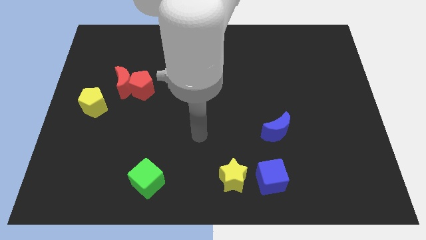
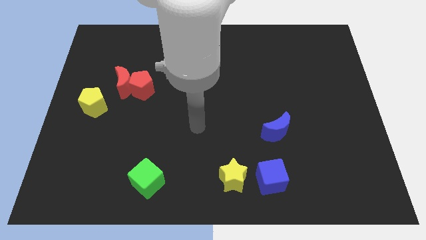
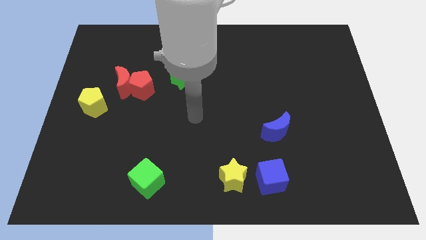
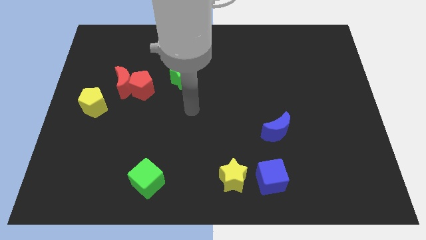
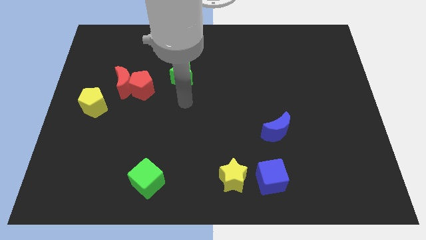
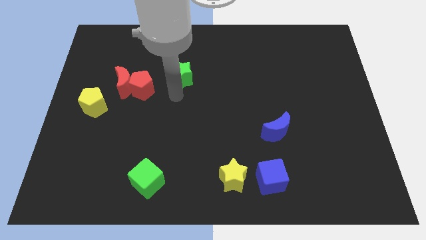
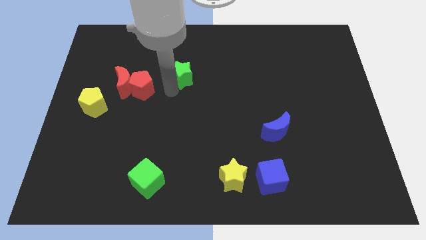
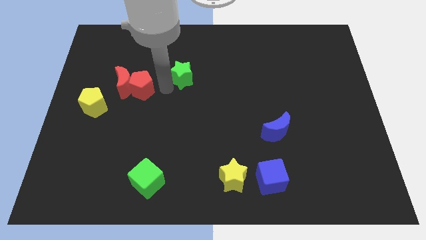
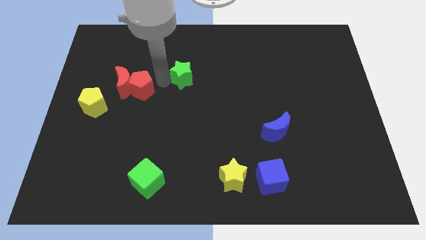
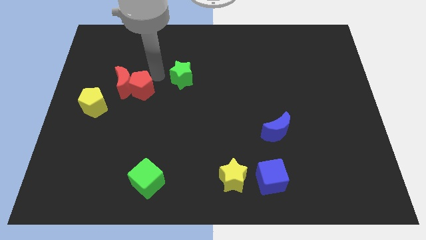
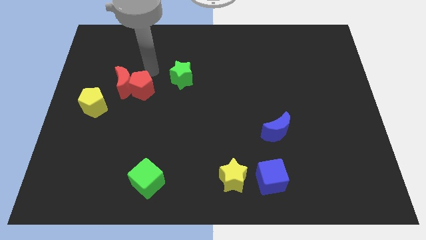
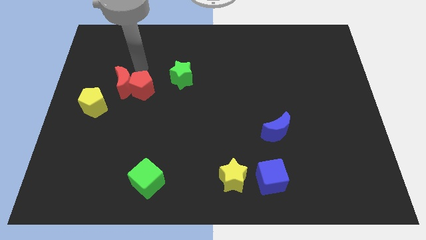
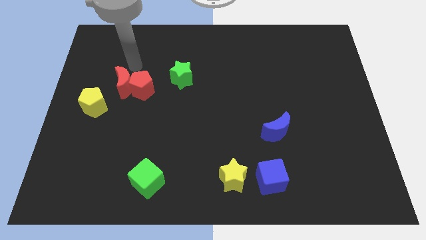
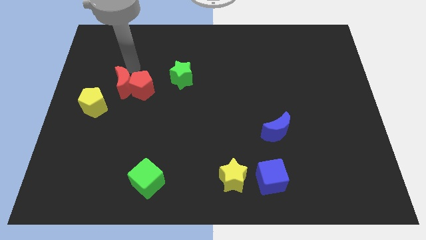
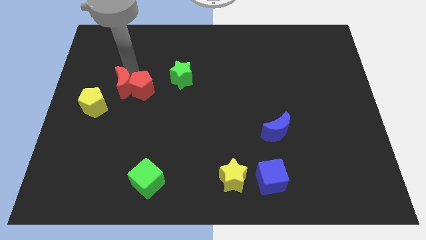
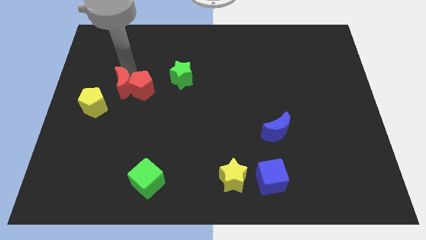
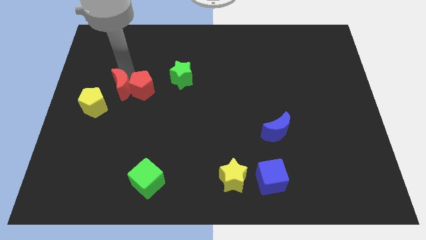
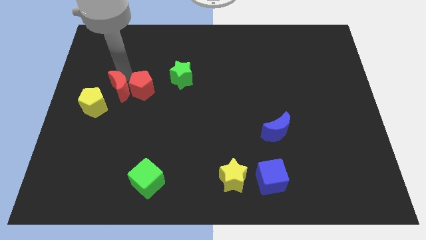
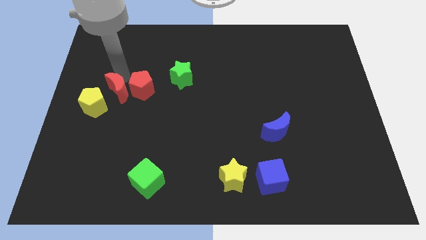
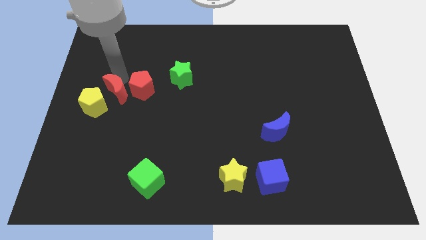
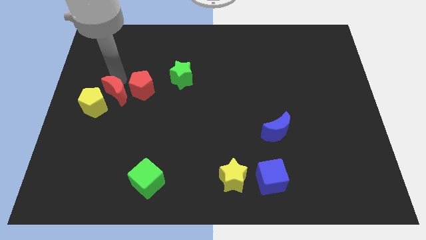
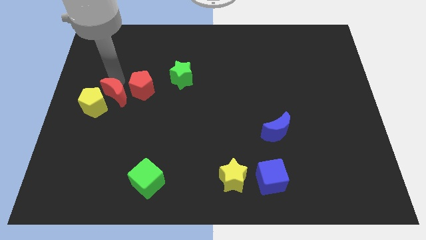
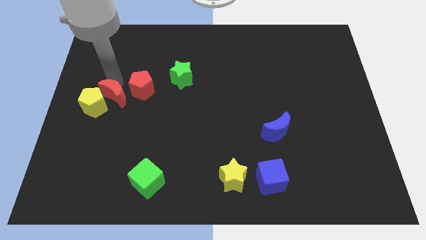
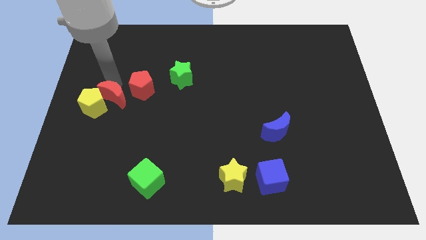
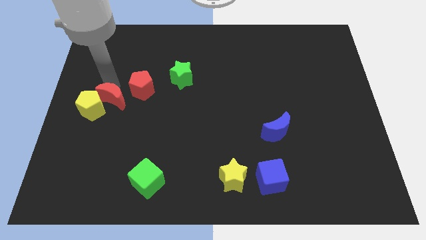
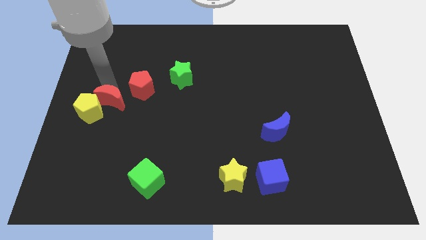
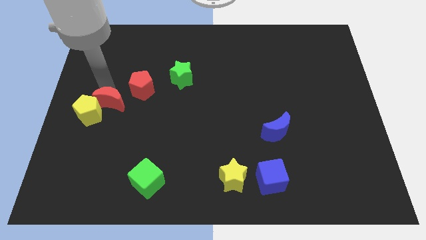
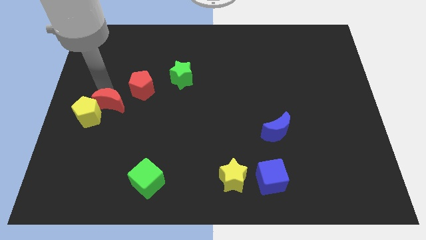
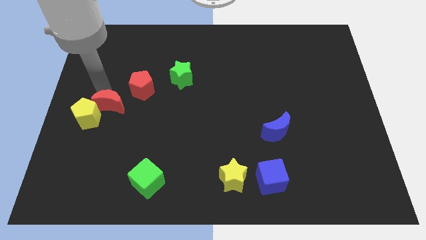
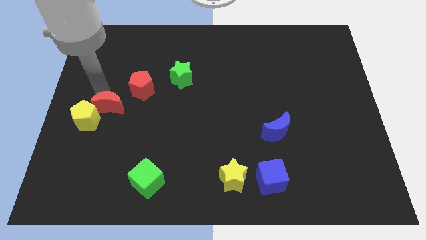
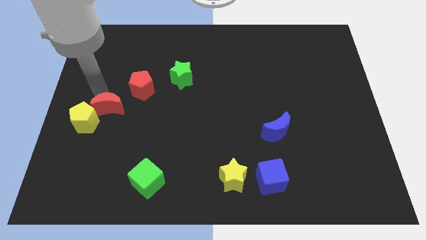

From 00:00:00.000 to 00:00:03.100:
slightly push the red moon downwards

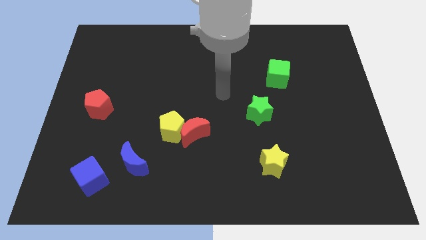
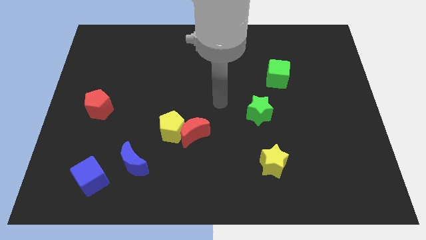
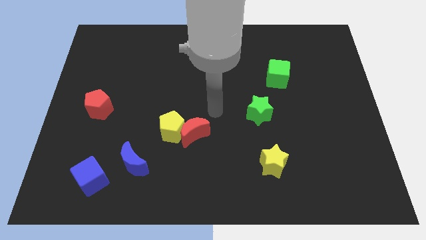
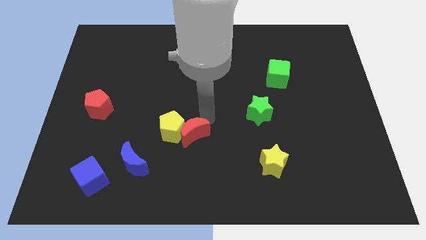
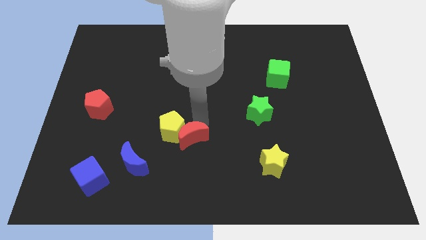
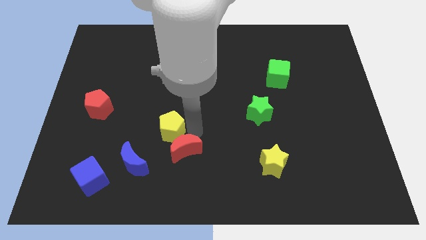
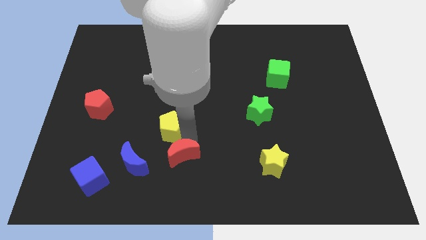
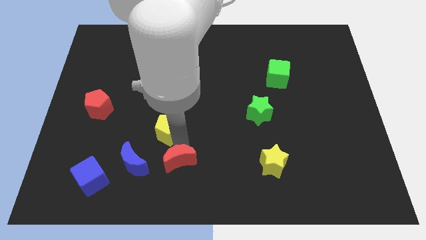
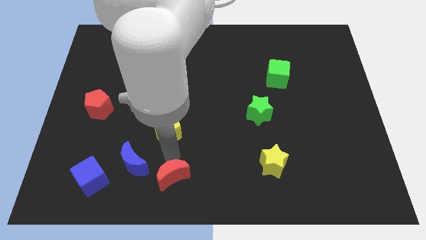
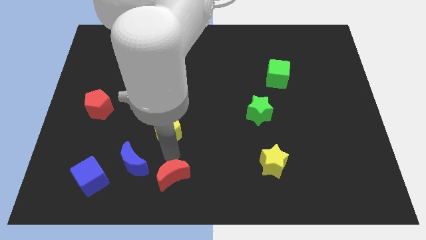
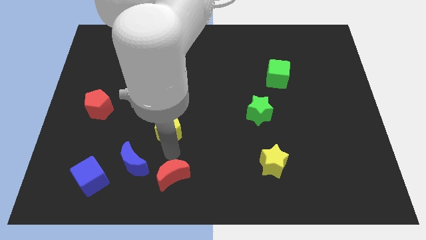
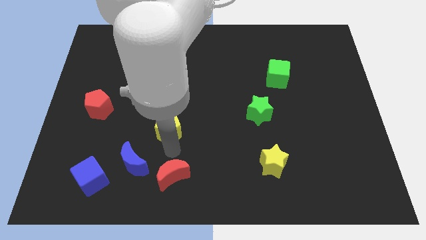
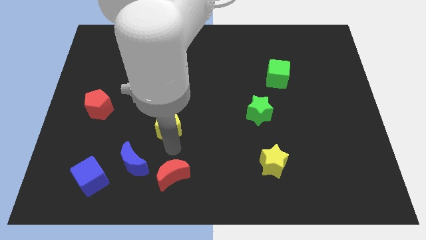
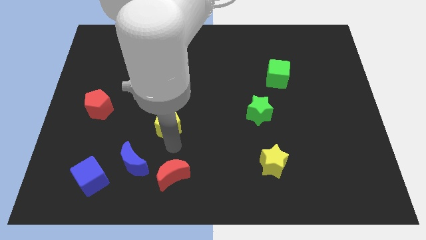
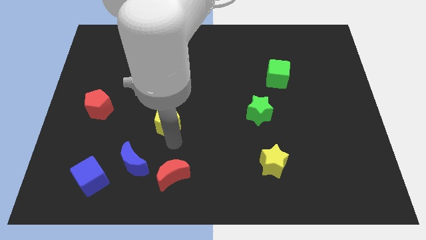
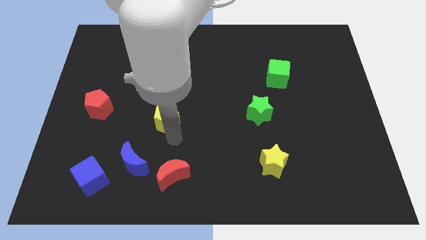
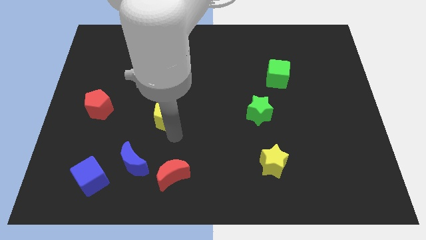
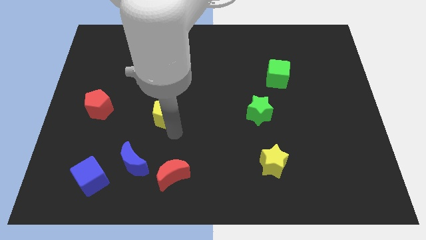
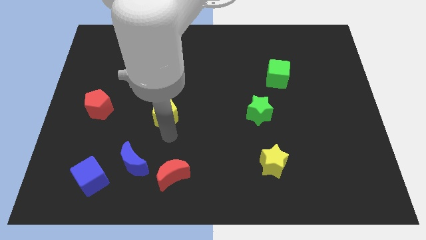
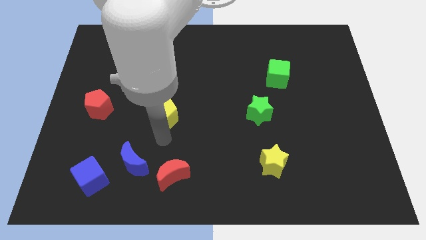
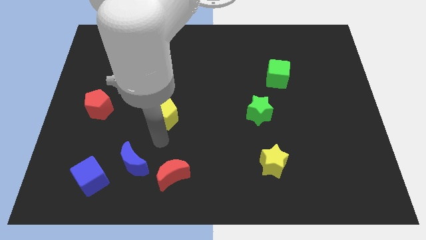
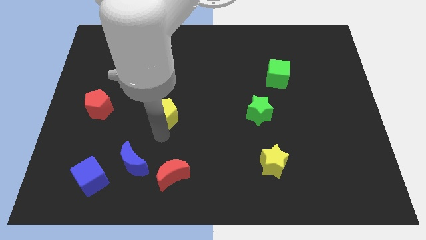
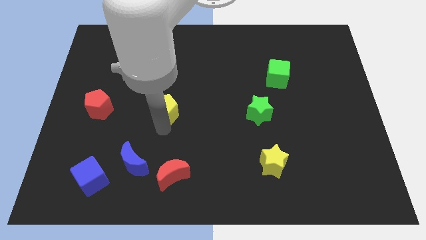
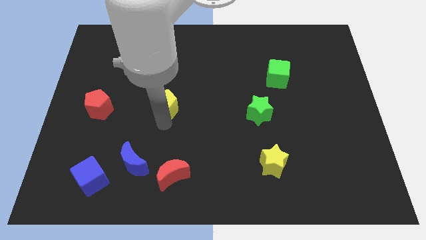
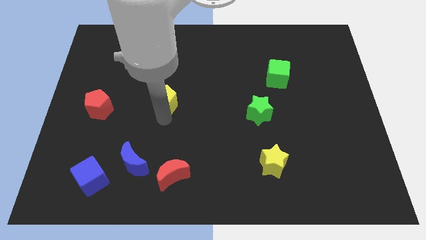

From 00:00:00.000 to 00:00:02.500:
slightly slide the yellow pentagon upwards

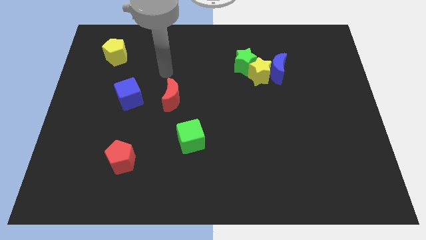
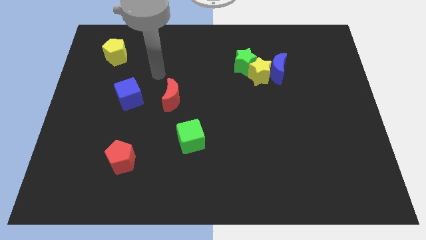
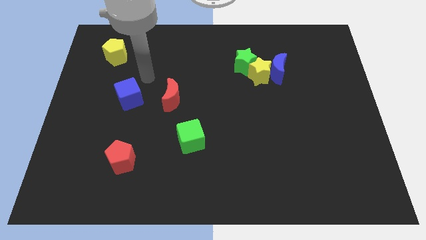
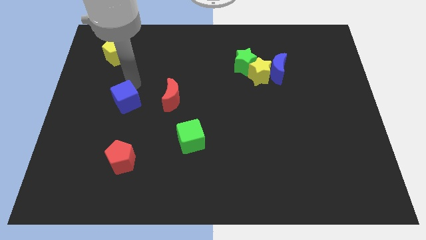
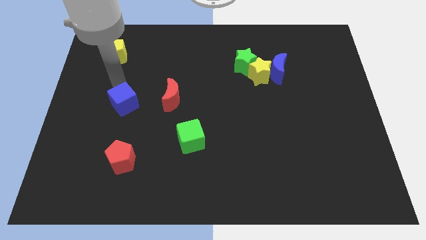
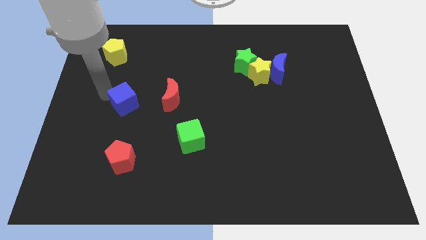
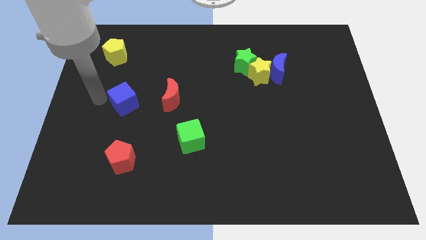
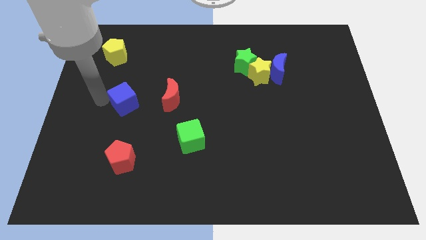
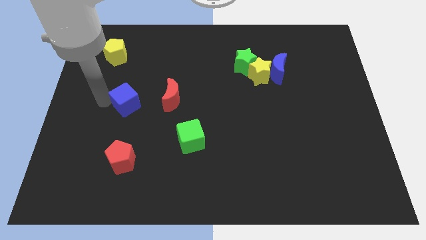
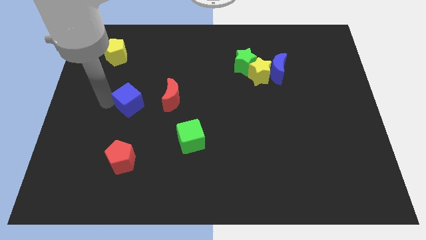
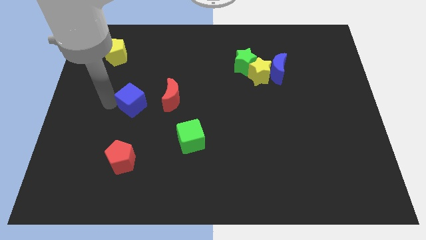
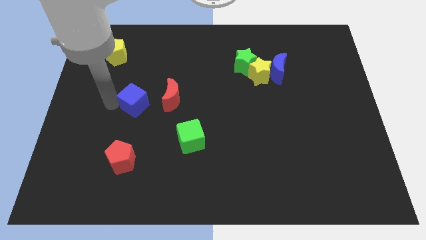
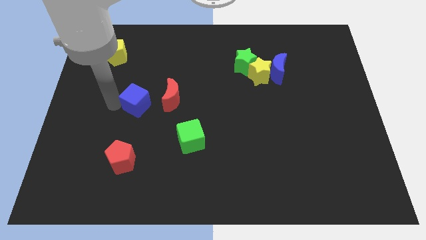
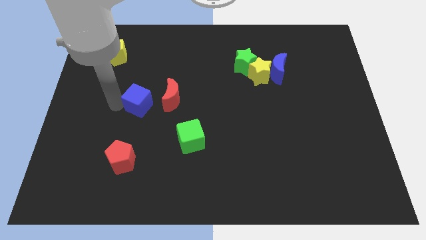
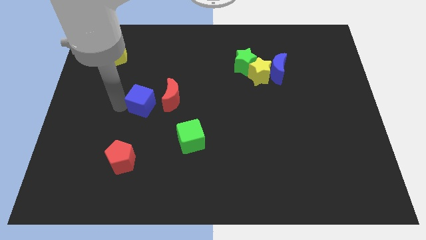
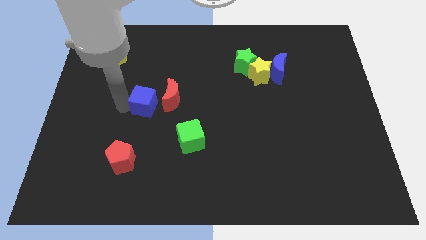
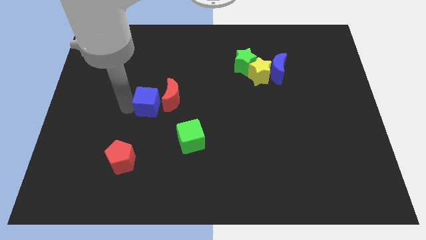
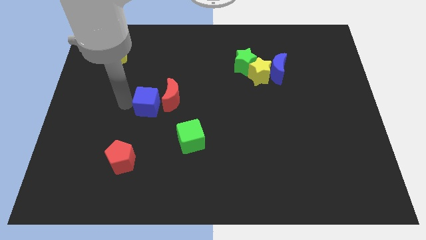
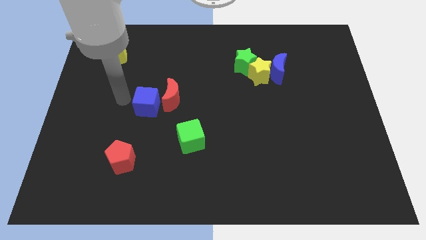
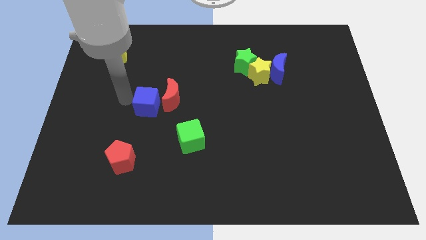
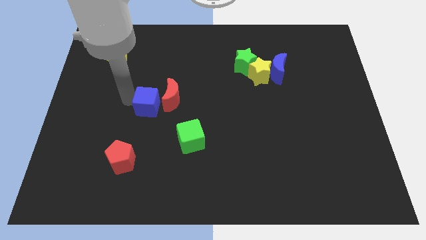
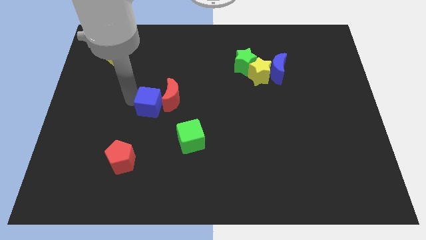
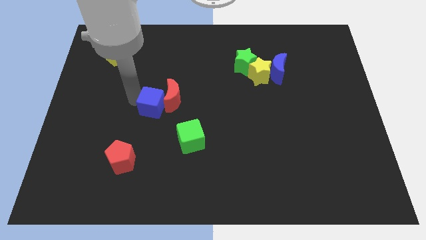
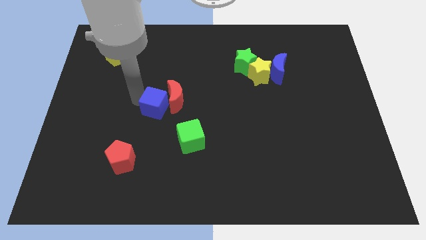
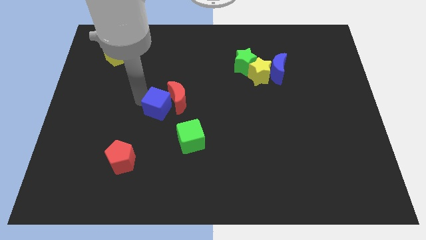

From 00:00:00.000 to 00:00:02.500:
slide the blue cube a bit to the right
